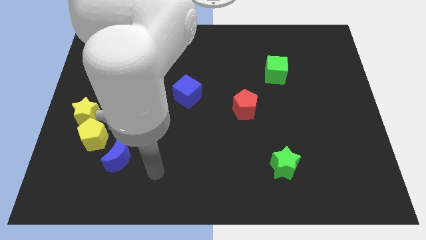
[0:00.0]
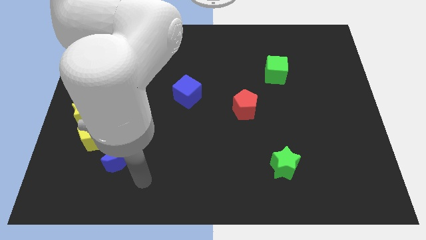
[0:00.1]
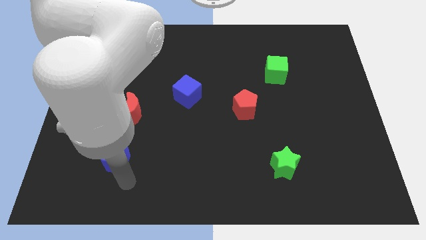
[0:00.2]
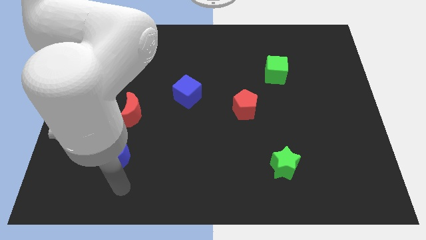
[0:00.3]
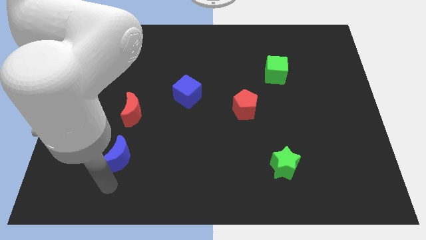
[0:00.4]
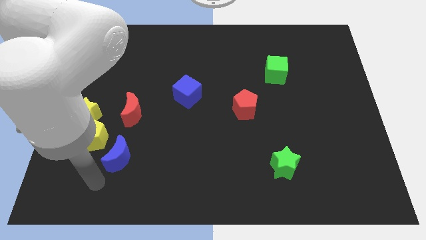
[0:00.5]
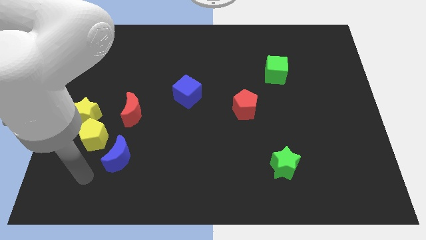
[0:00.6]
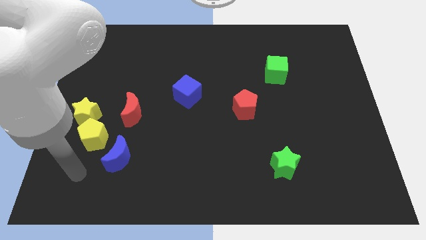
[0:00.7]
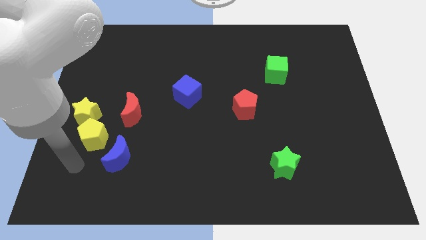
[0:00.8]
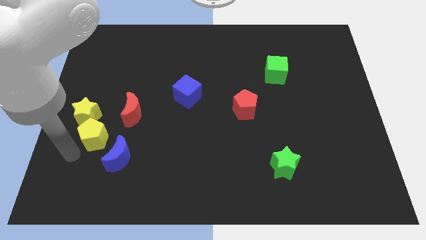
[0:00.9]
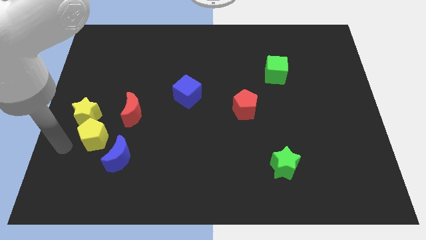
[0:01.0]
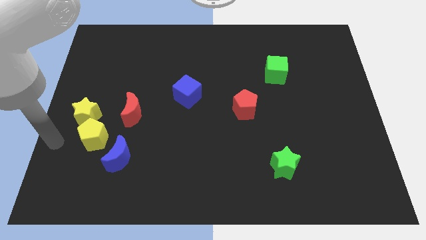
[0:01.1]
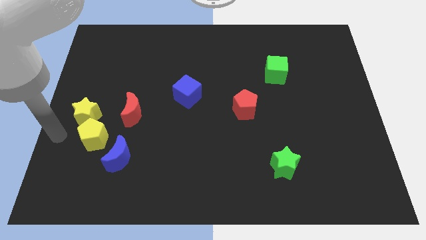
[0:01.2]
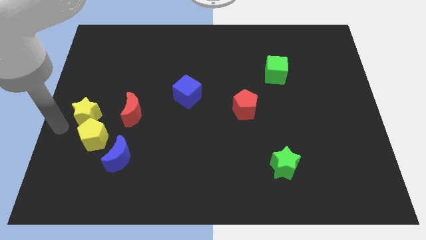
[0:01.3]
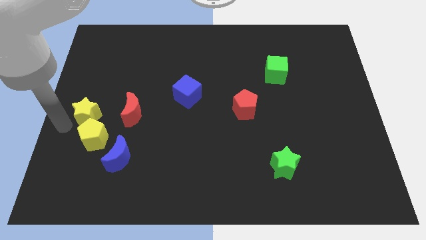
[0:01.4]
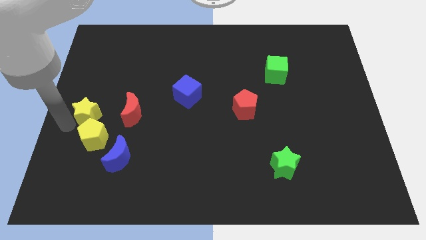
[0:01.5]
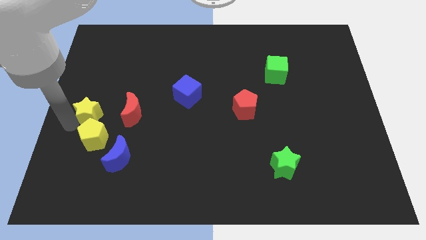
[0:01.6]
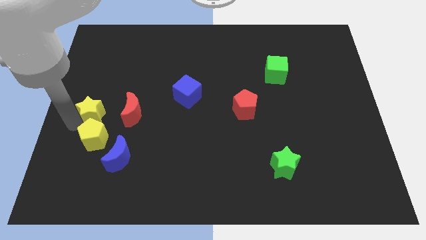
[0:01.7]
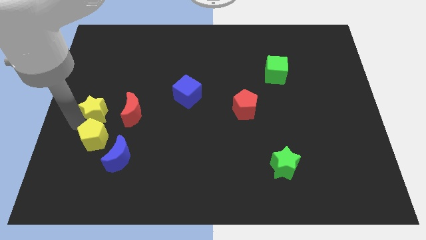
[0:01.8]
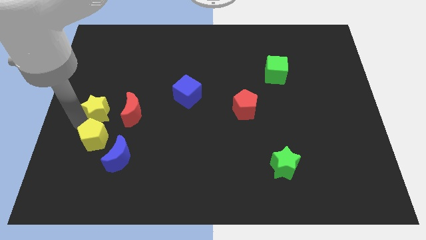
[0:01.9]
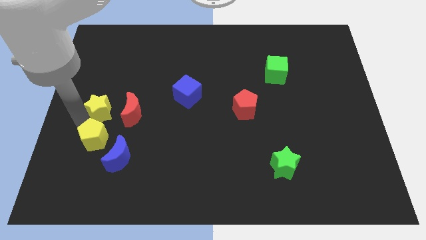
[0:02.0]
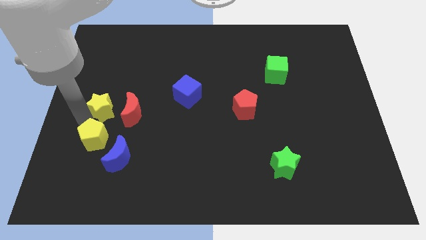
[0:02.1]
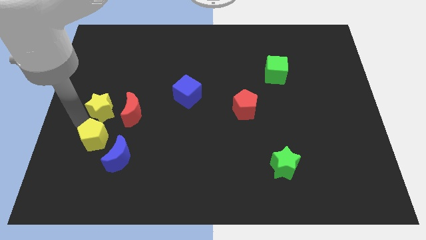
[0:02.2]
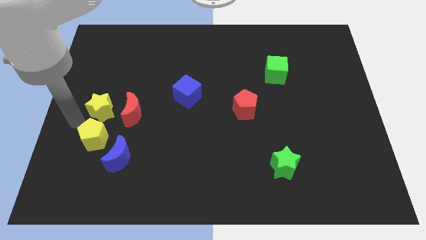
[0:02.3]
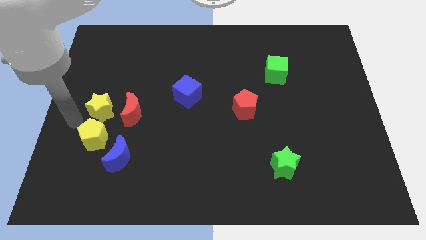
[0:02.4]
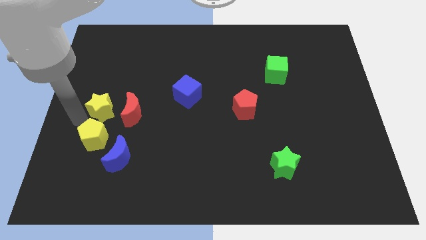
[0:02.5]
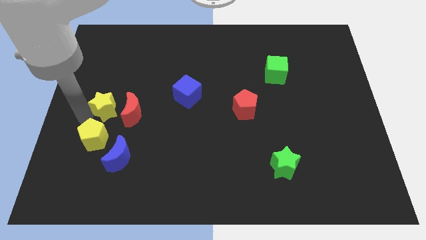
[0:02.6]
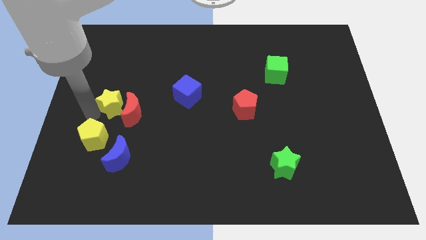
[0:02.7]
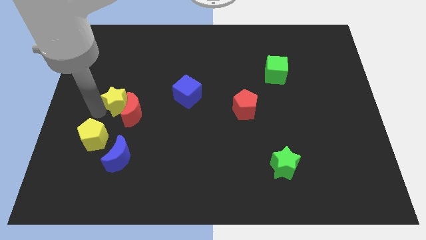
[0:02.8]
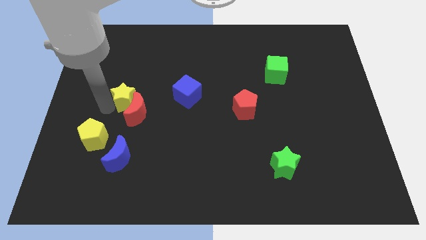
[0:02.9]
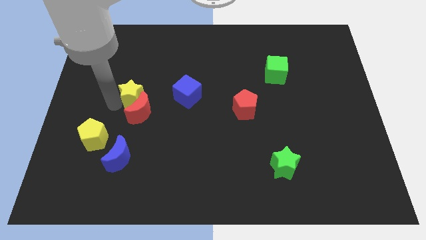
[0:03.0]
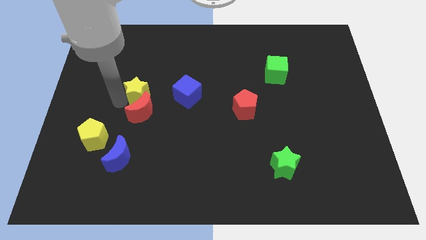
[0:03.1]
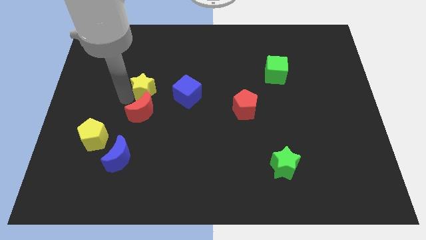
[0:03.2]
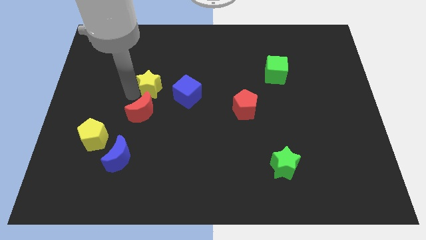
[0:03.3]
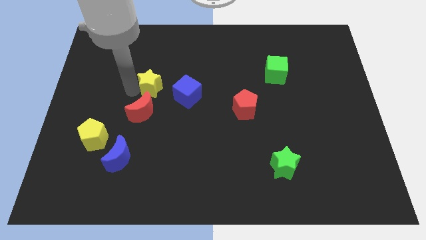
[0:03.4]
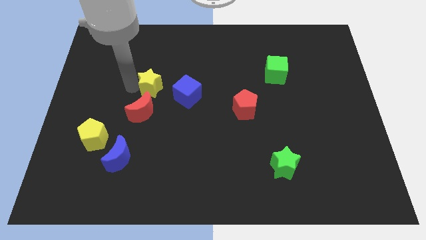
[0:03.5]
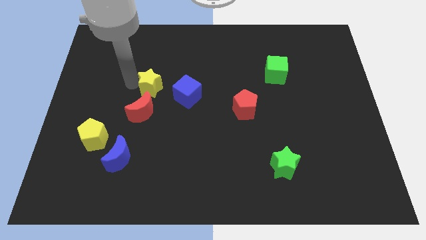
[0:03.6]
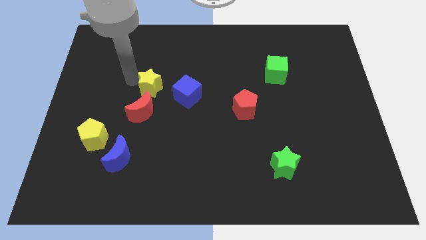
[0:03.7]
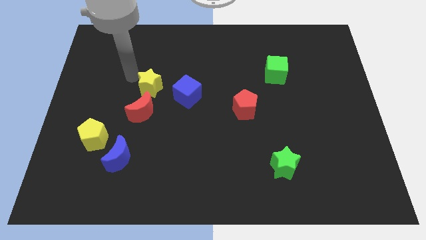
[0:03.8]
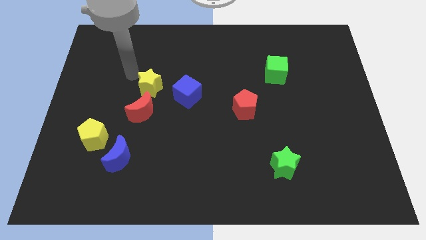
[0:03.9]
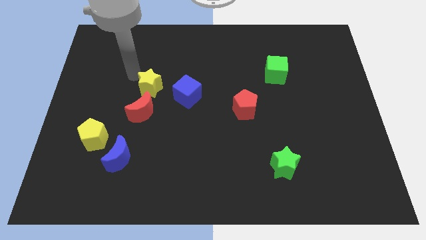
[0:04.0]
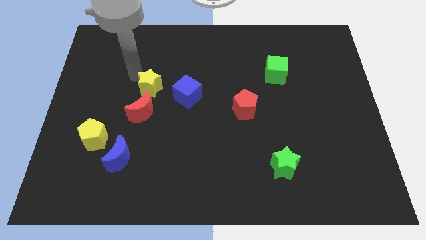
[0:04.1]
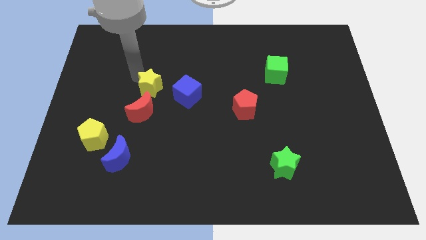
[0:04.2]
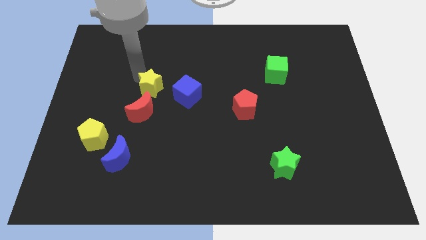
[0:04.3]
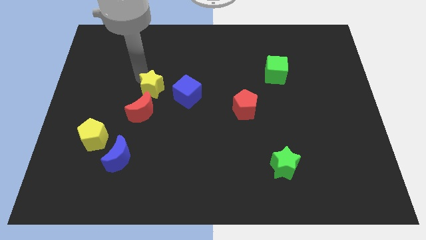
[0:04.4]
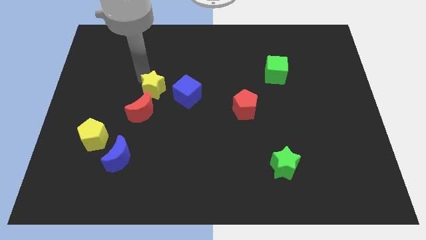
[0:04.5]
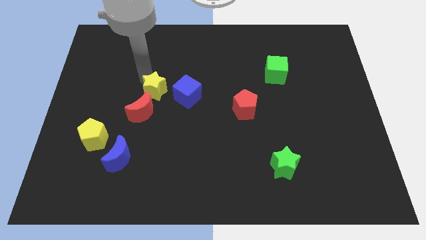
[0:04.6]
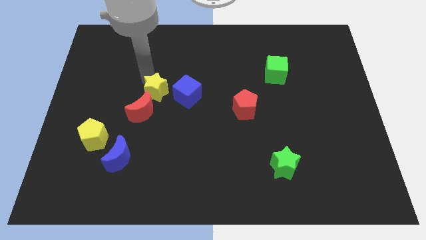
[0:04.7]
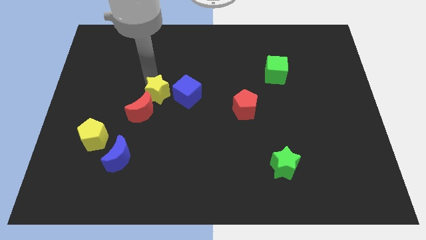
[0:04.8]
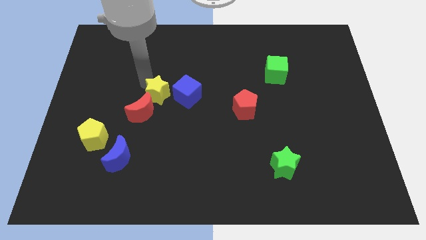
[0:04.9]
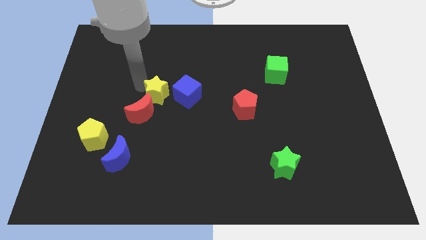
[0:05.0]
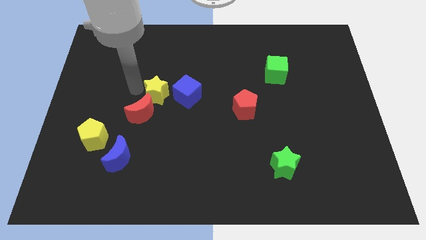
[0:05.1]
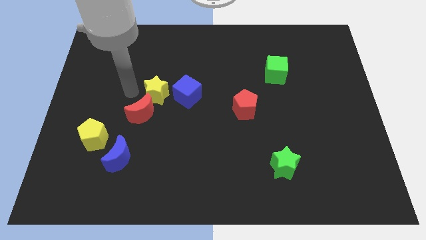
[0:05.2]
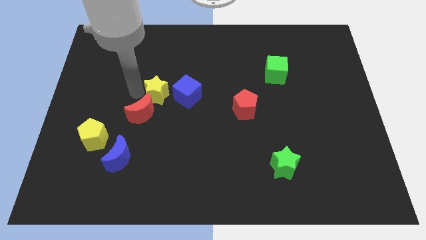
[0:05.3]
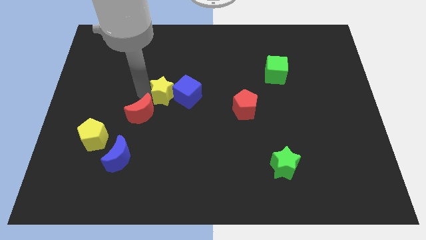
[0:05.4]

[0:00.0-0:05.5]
slide the yellow star next to the blue cube

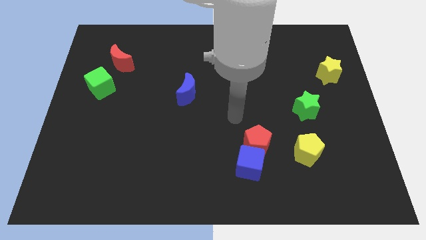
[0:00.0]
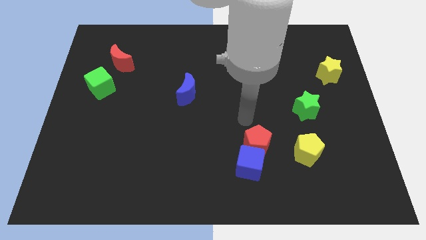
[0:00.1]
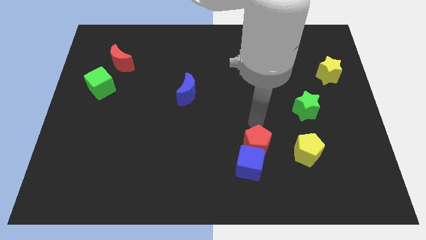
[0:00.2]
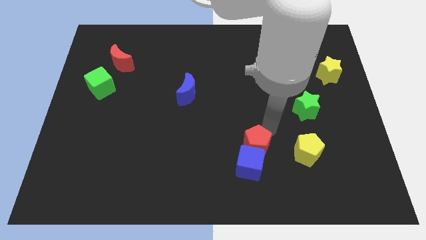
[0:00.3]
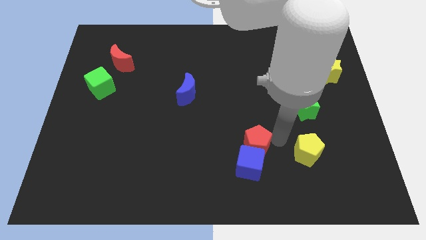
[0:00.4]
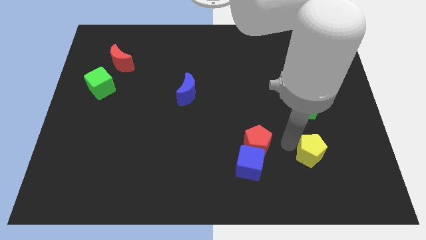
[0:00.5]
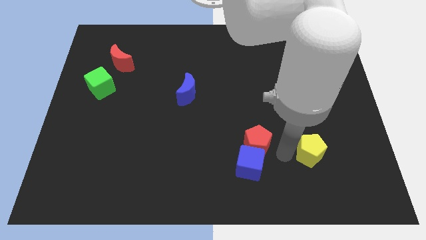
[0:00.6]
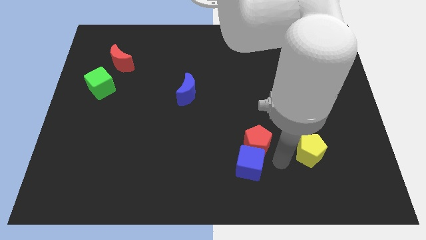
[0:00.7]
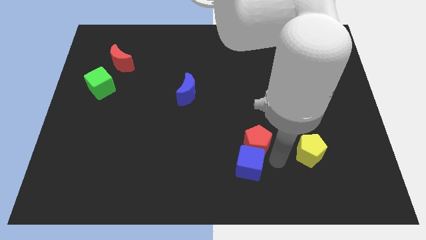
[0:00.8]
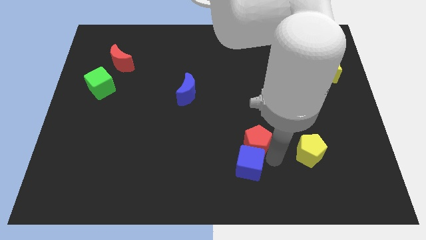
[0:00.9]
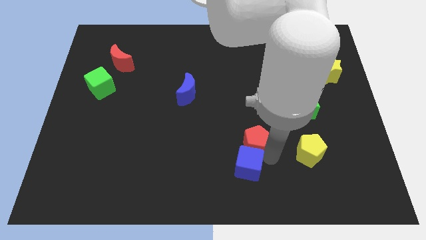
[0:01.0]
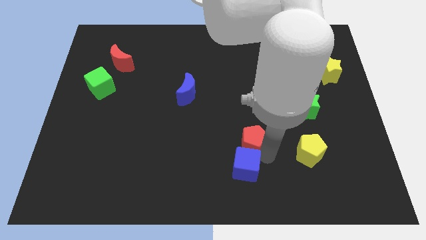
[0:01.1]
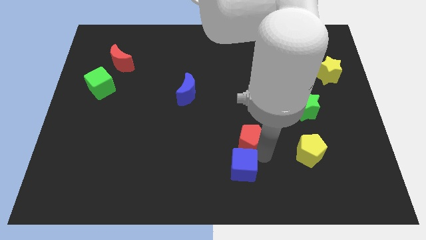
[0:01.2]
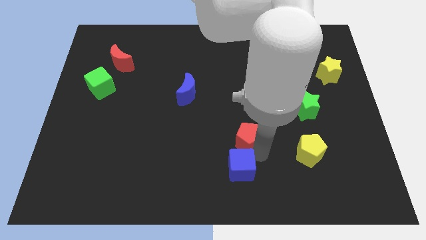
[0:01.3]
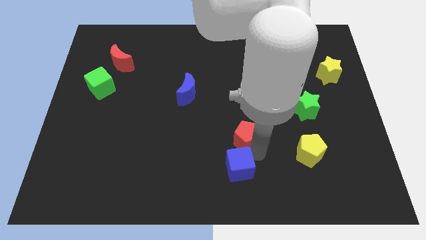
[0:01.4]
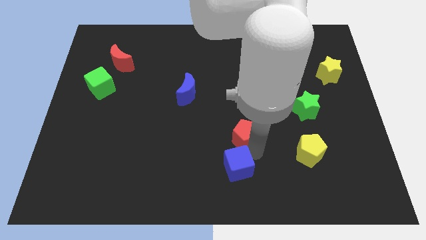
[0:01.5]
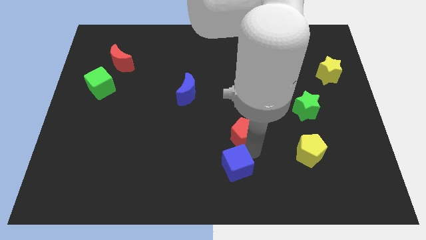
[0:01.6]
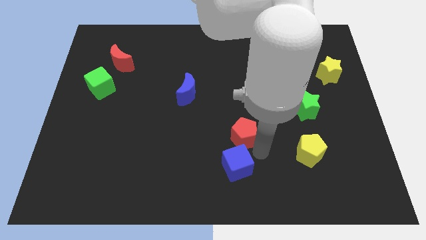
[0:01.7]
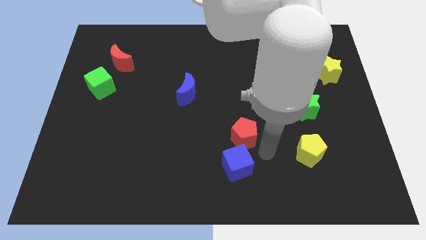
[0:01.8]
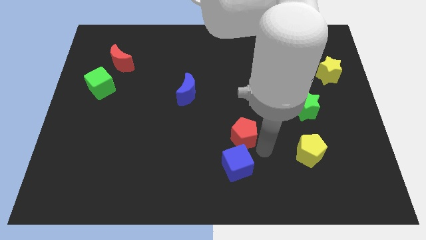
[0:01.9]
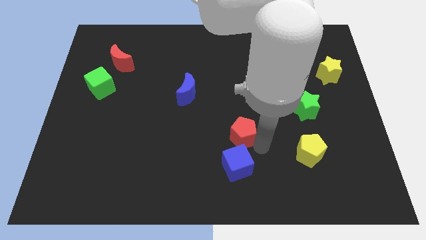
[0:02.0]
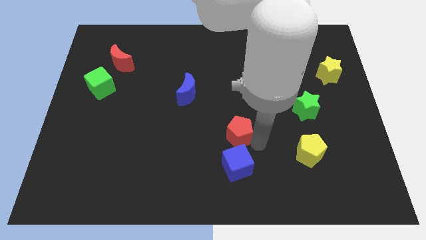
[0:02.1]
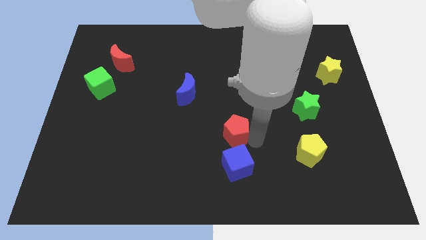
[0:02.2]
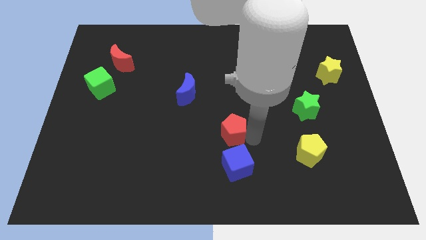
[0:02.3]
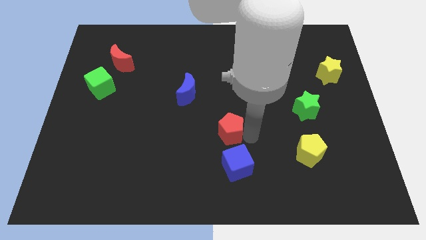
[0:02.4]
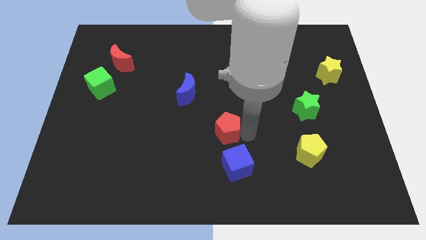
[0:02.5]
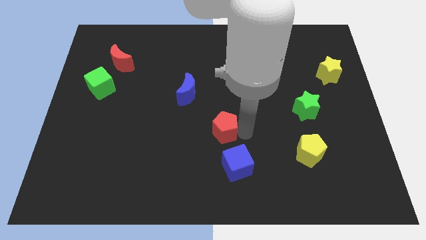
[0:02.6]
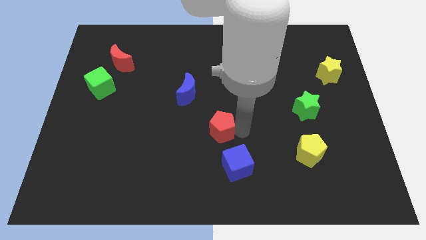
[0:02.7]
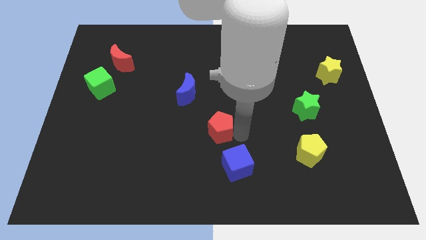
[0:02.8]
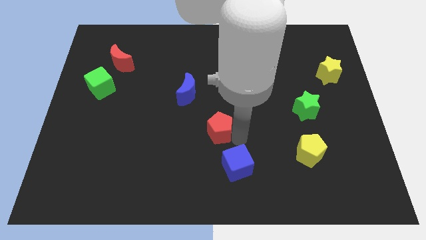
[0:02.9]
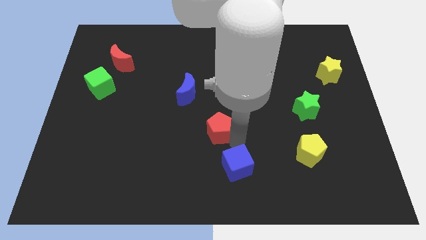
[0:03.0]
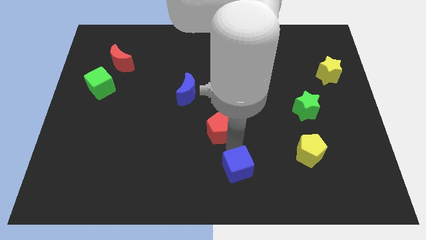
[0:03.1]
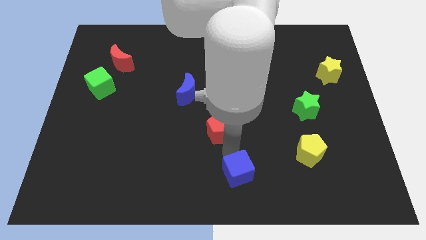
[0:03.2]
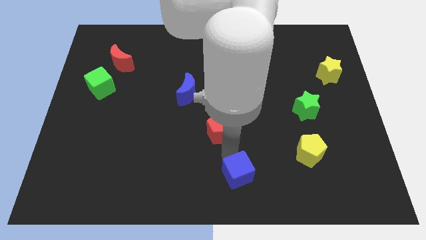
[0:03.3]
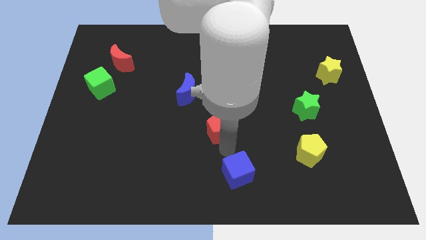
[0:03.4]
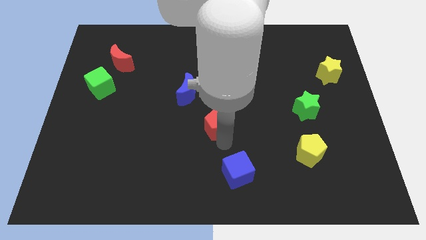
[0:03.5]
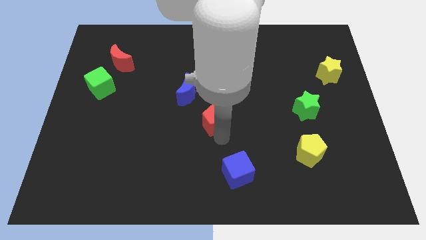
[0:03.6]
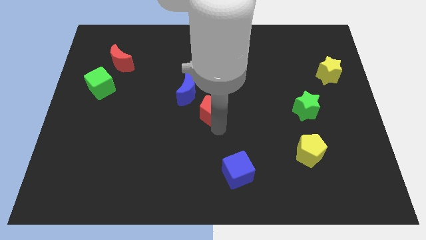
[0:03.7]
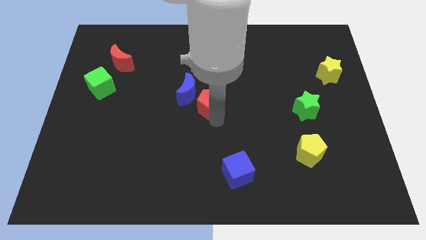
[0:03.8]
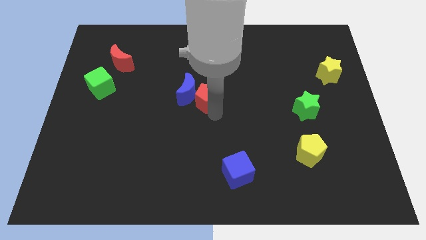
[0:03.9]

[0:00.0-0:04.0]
put the red pentagon close to the blue moon
